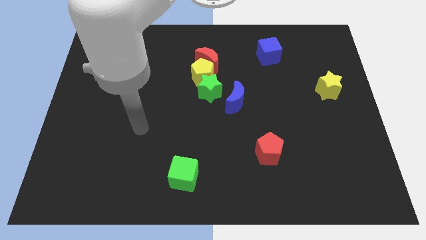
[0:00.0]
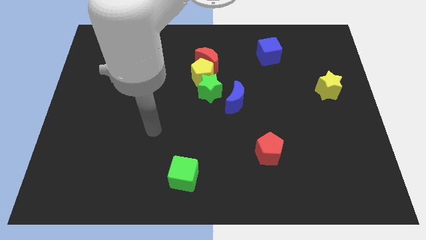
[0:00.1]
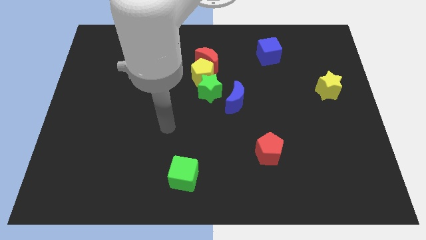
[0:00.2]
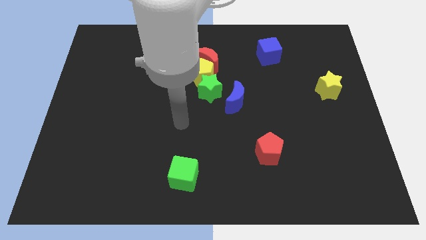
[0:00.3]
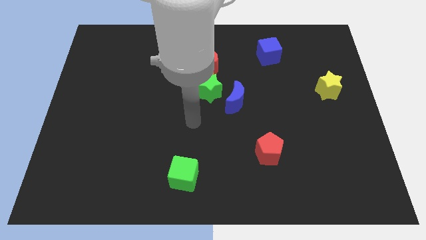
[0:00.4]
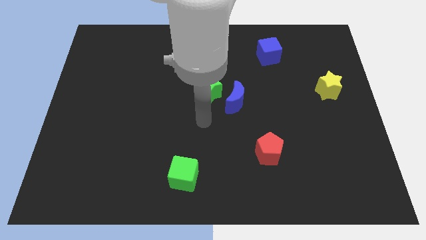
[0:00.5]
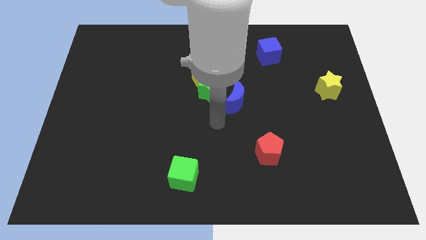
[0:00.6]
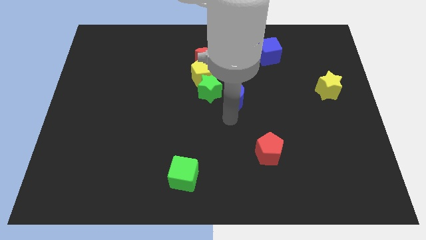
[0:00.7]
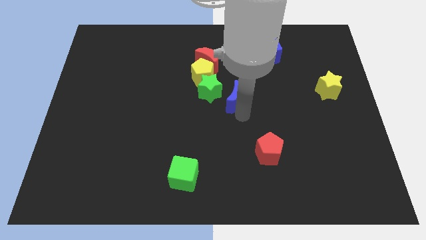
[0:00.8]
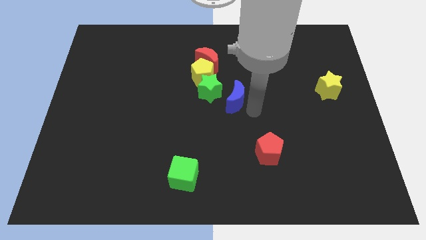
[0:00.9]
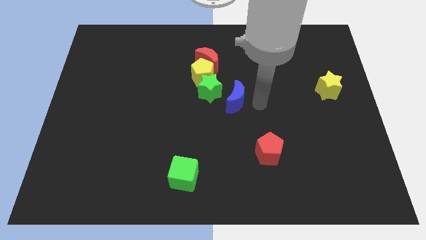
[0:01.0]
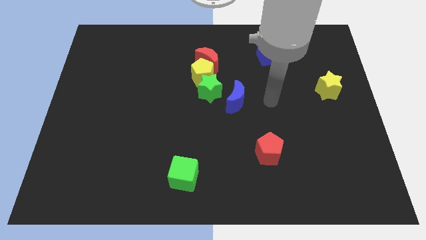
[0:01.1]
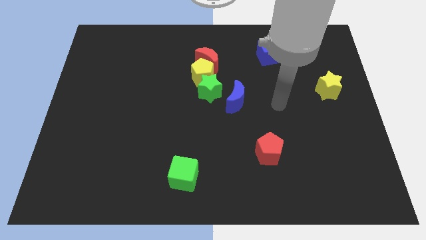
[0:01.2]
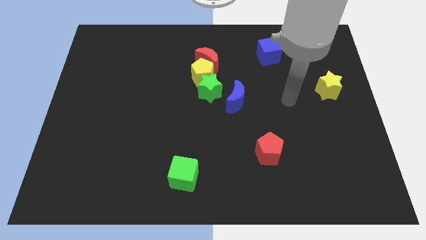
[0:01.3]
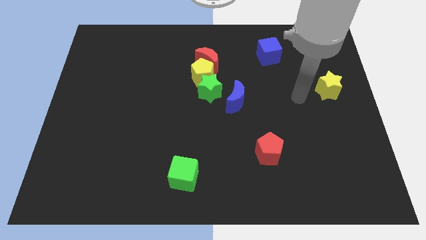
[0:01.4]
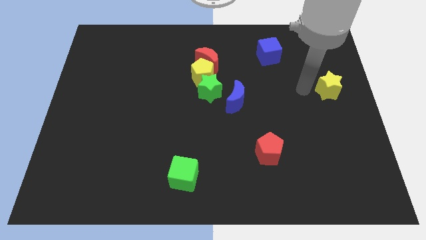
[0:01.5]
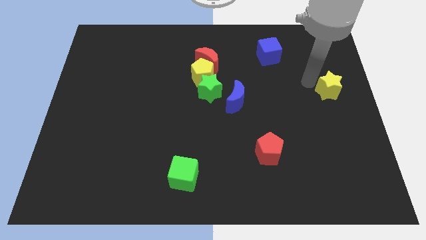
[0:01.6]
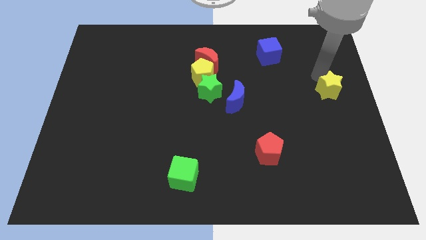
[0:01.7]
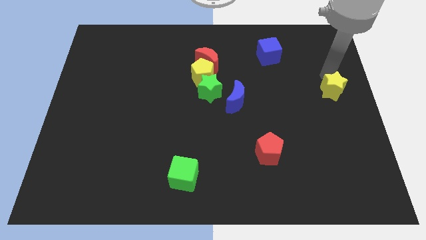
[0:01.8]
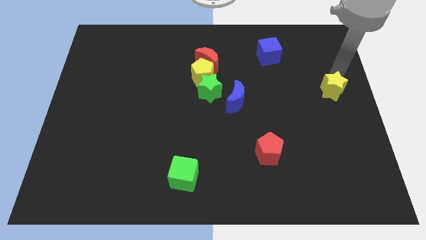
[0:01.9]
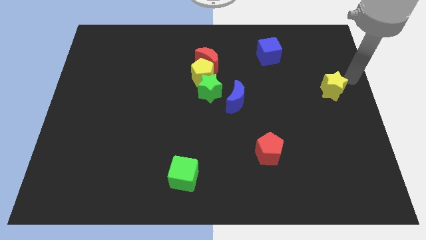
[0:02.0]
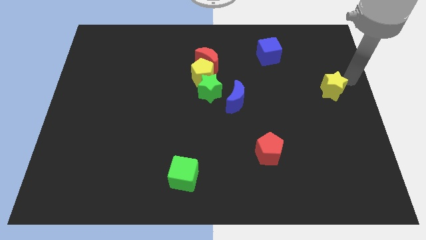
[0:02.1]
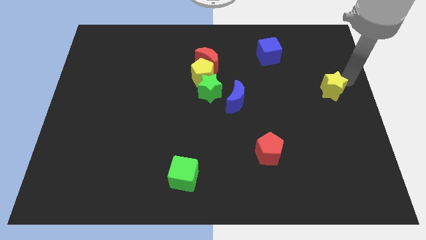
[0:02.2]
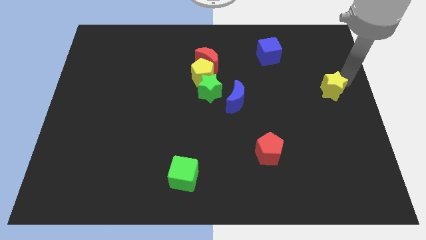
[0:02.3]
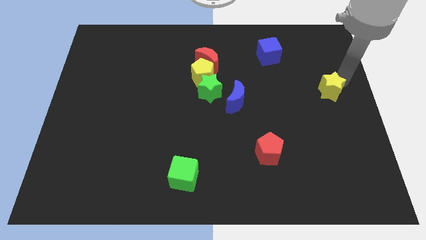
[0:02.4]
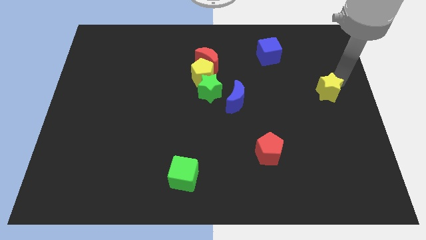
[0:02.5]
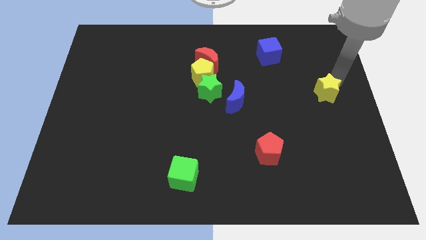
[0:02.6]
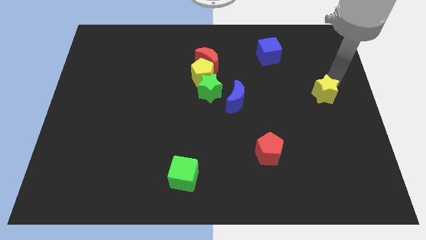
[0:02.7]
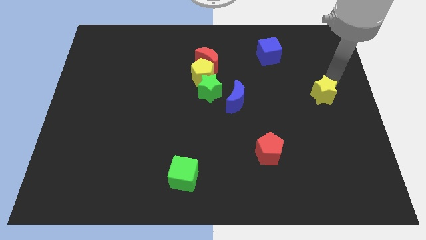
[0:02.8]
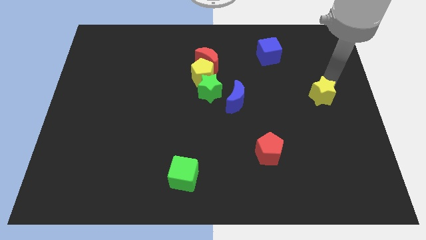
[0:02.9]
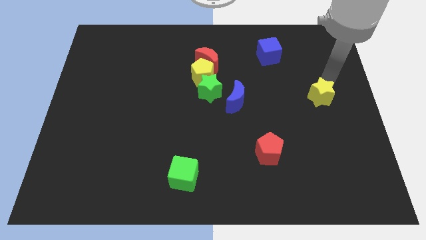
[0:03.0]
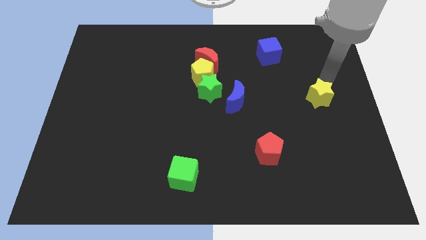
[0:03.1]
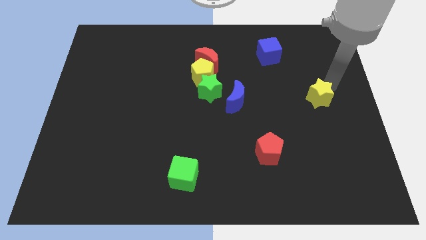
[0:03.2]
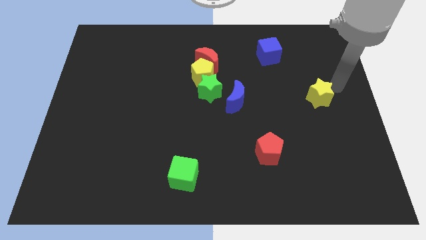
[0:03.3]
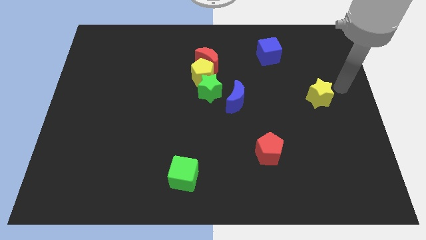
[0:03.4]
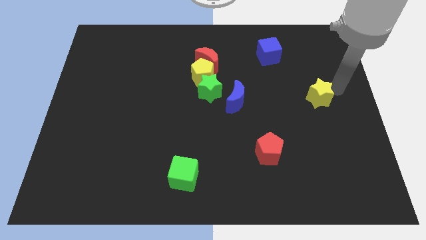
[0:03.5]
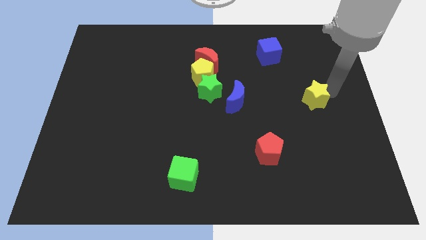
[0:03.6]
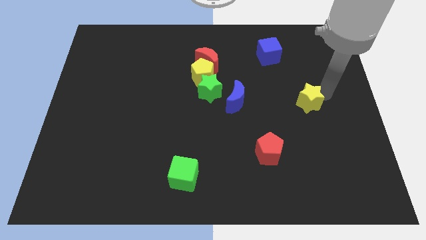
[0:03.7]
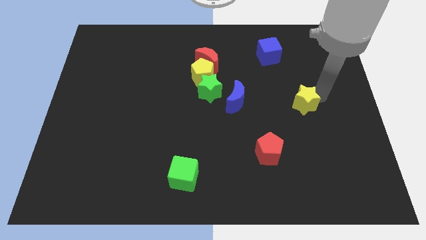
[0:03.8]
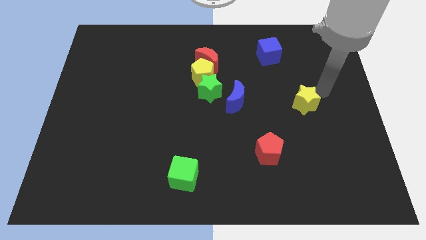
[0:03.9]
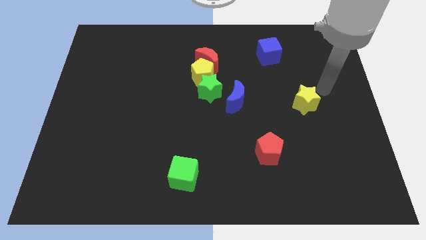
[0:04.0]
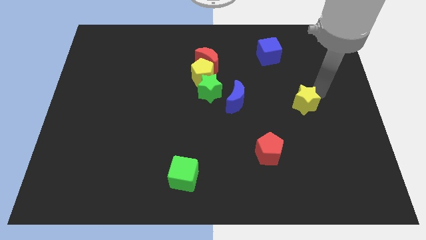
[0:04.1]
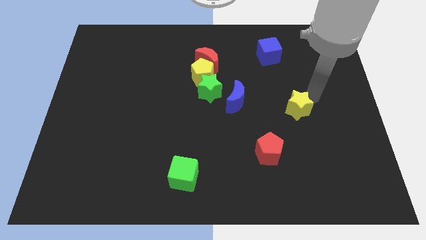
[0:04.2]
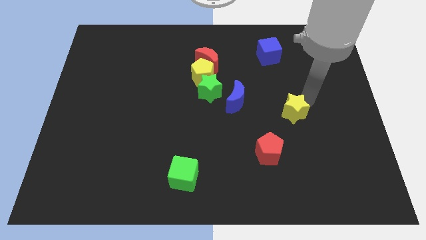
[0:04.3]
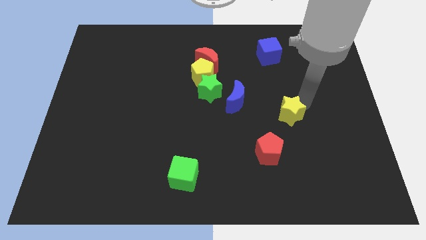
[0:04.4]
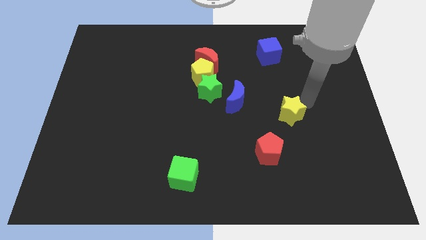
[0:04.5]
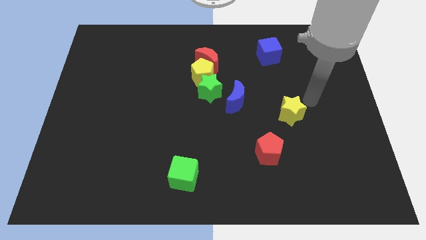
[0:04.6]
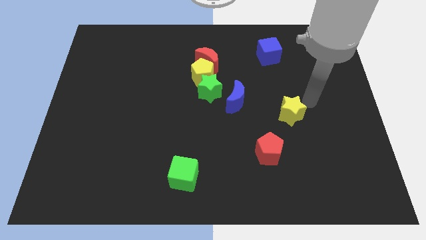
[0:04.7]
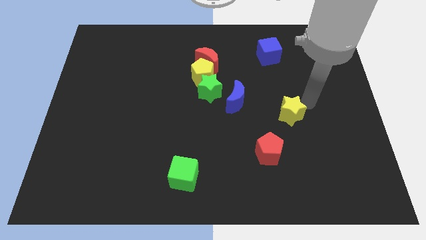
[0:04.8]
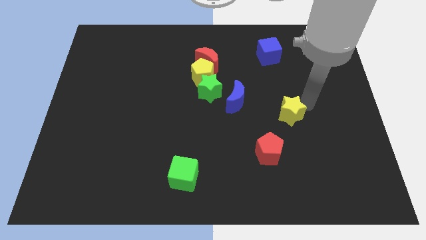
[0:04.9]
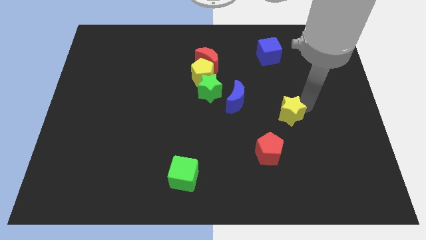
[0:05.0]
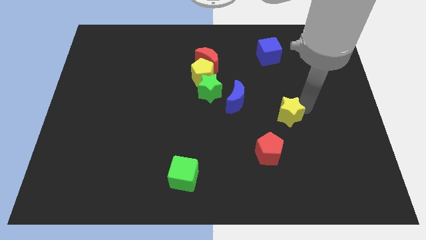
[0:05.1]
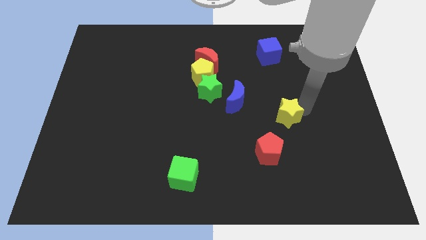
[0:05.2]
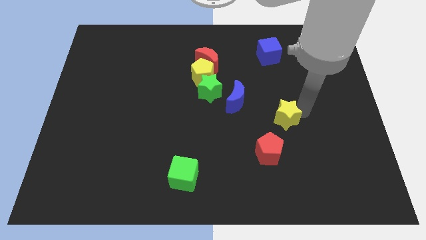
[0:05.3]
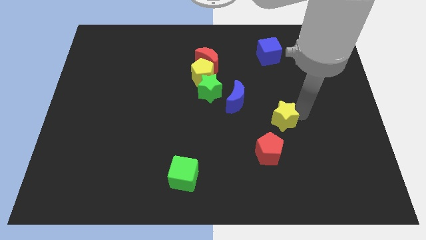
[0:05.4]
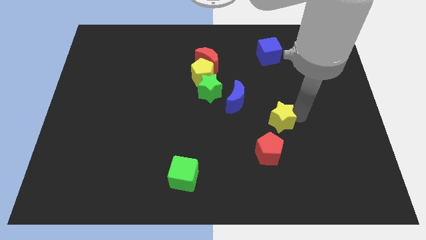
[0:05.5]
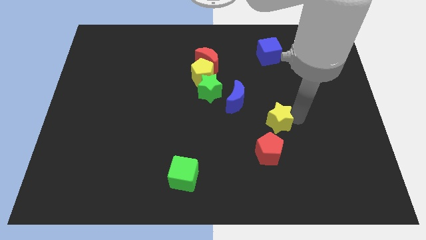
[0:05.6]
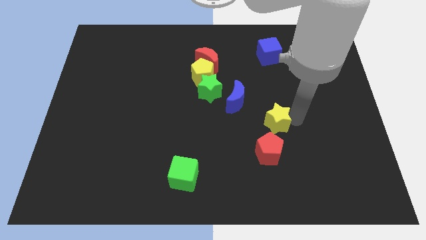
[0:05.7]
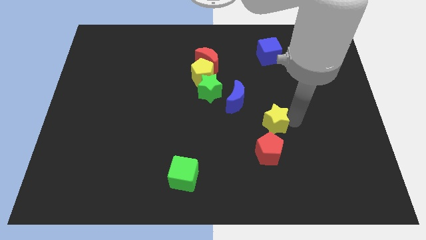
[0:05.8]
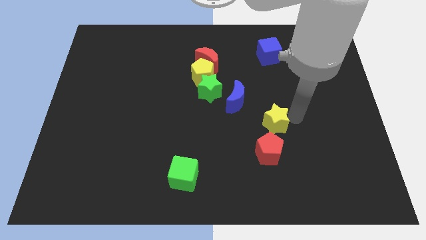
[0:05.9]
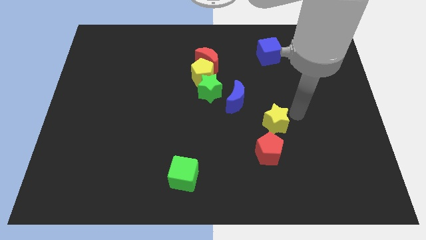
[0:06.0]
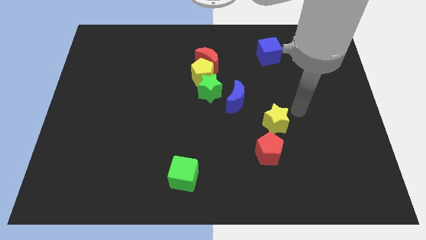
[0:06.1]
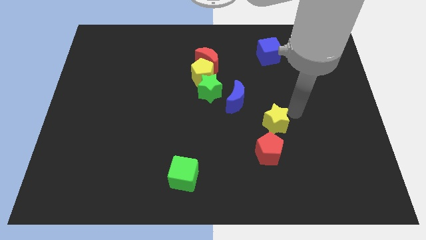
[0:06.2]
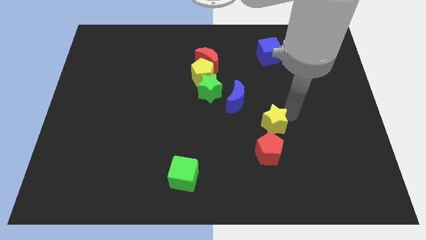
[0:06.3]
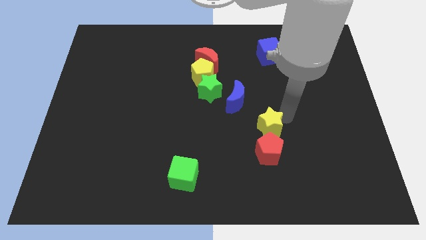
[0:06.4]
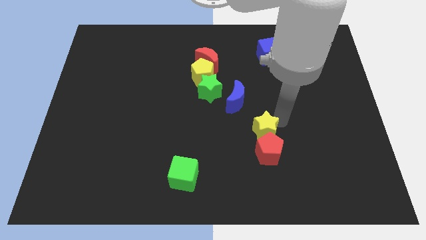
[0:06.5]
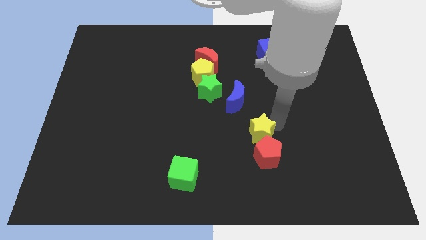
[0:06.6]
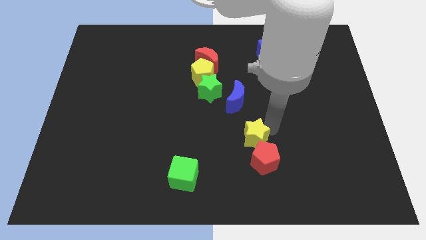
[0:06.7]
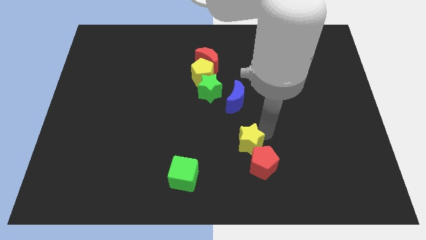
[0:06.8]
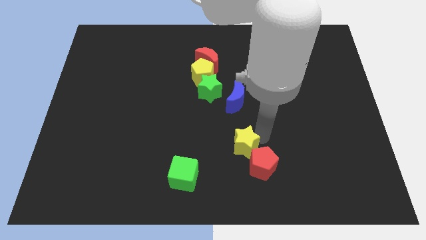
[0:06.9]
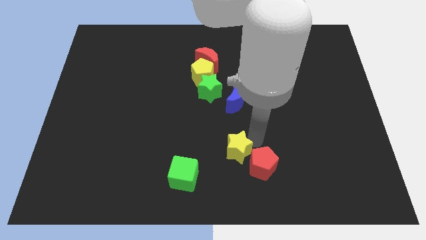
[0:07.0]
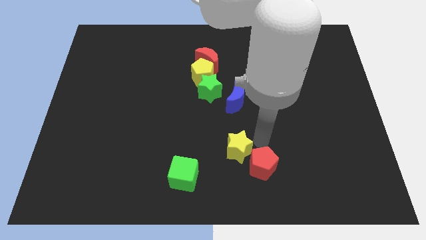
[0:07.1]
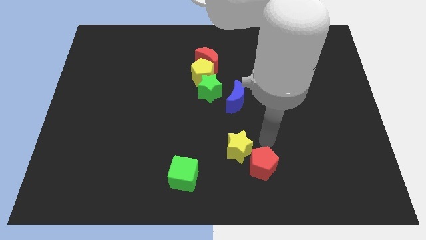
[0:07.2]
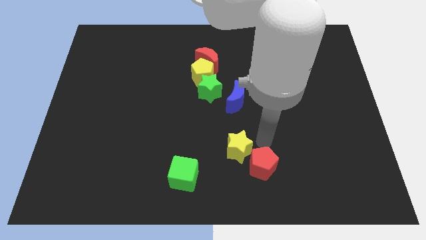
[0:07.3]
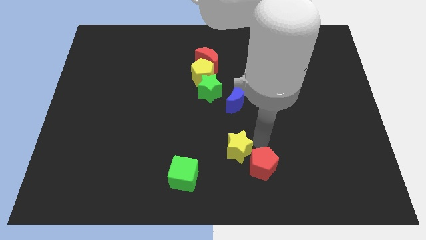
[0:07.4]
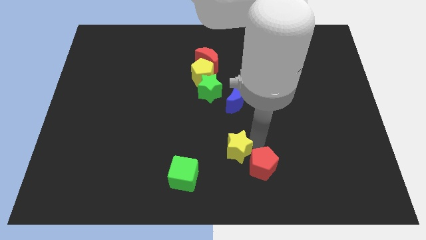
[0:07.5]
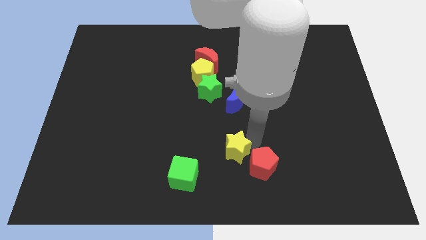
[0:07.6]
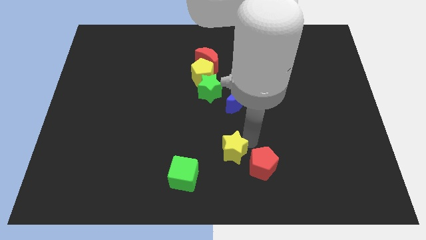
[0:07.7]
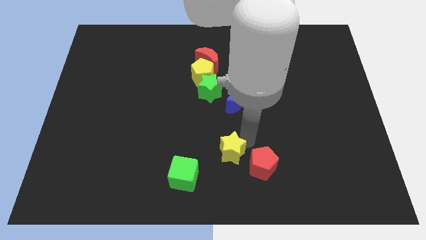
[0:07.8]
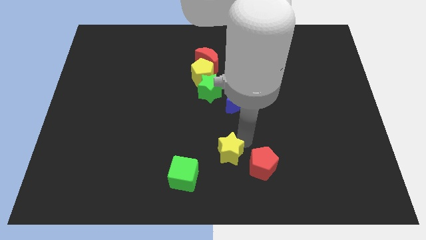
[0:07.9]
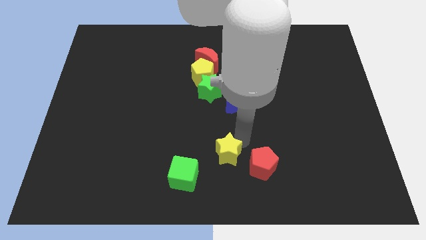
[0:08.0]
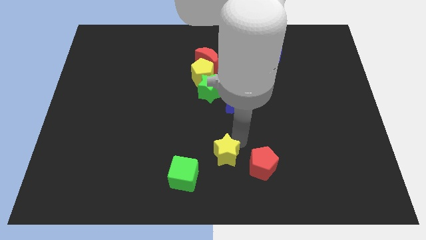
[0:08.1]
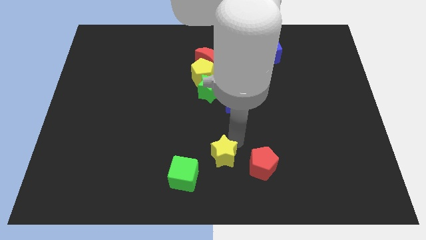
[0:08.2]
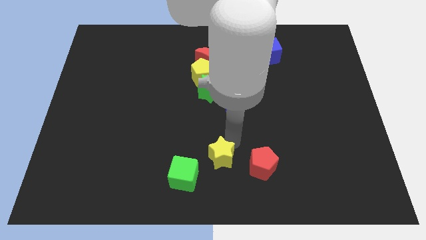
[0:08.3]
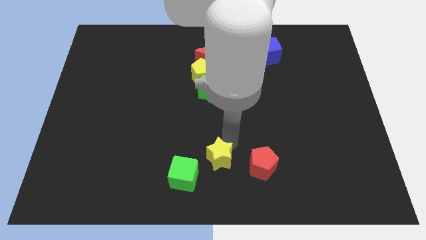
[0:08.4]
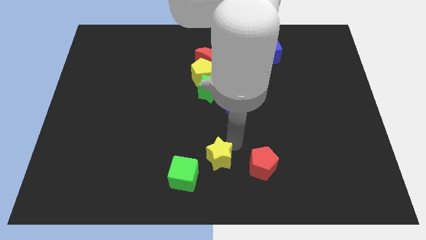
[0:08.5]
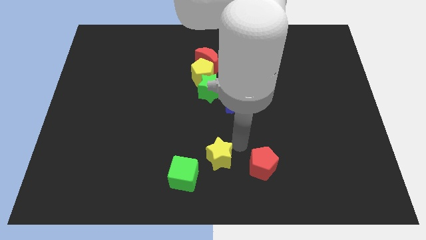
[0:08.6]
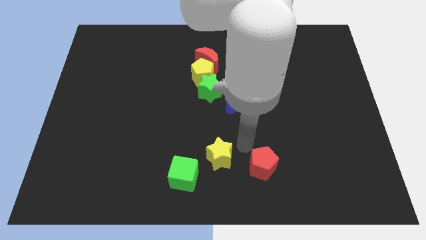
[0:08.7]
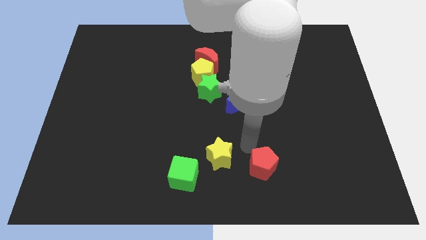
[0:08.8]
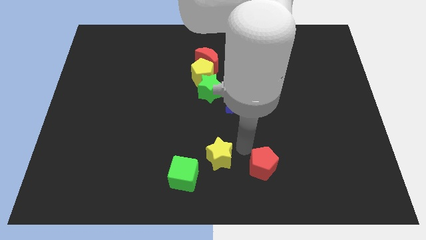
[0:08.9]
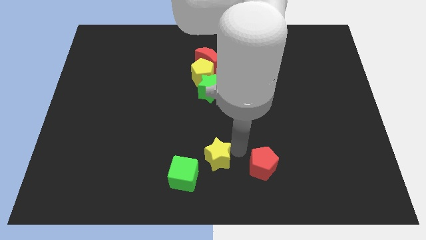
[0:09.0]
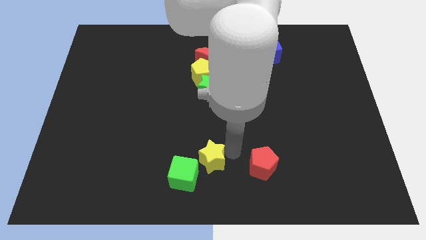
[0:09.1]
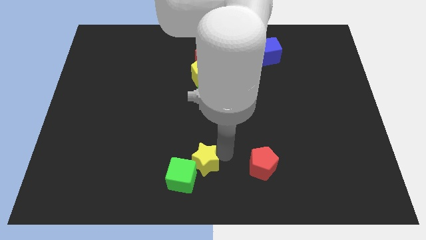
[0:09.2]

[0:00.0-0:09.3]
move the yellow star close to the green cube
